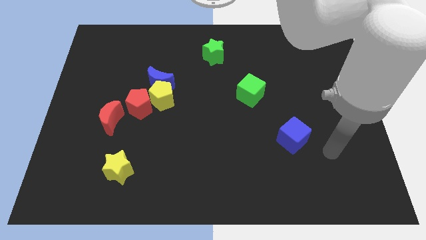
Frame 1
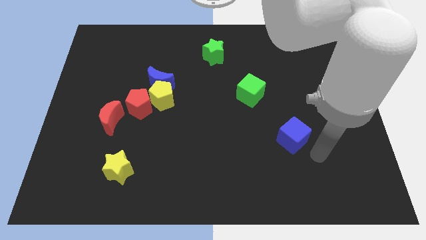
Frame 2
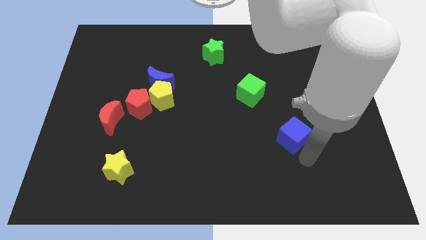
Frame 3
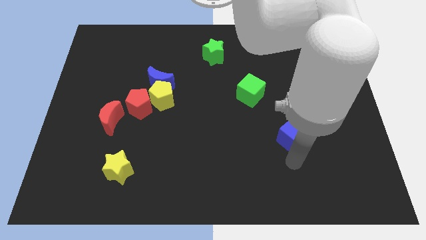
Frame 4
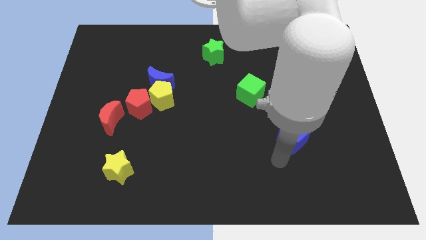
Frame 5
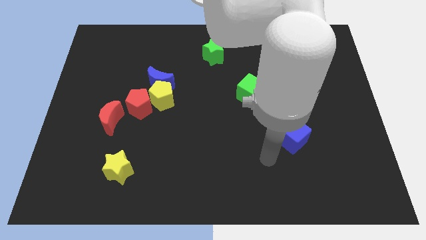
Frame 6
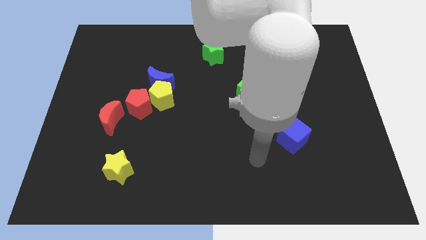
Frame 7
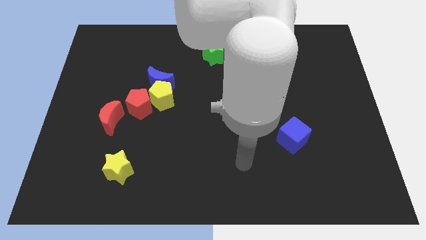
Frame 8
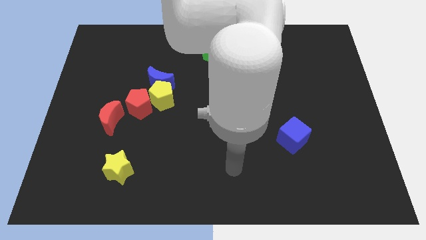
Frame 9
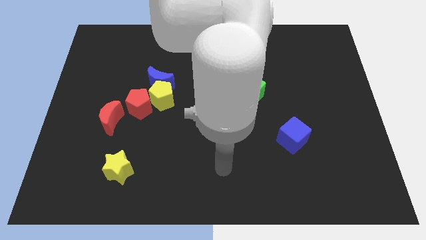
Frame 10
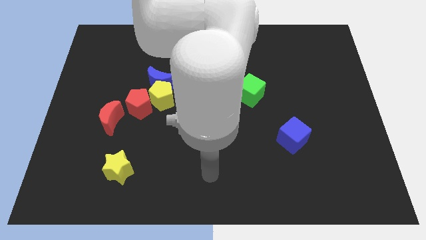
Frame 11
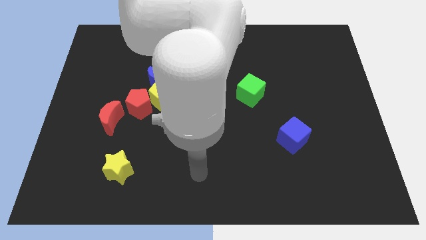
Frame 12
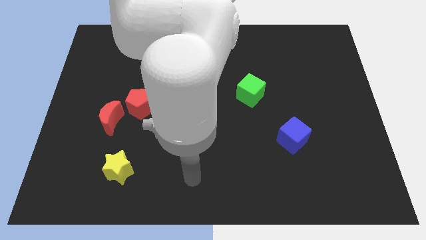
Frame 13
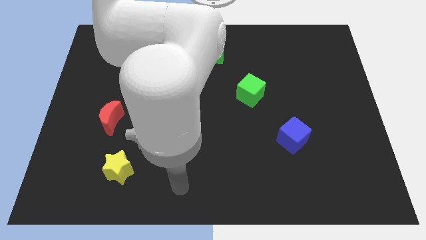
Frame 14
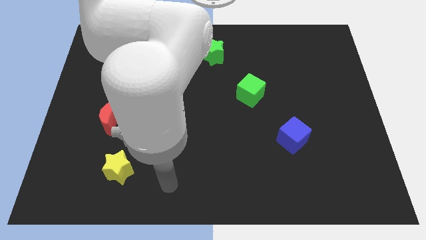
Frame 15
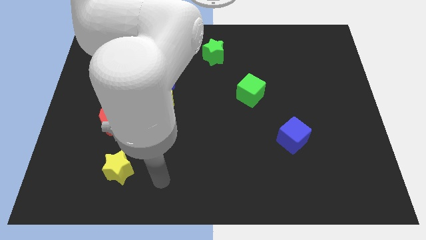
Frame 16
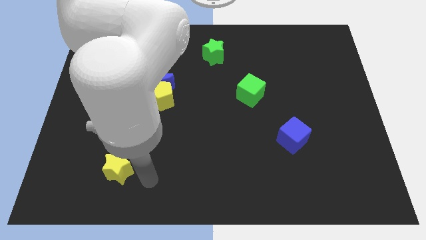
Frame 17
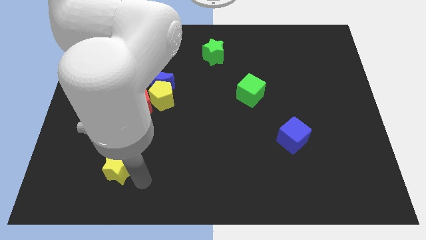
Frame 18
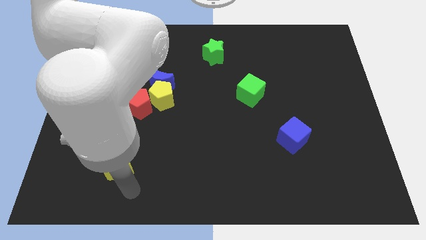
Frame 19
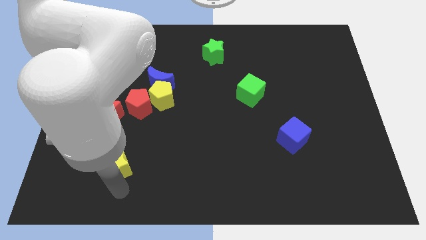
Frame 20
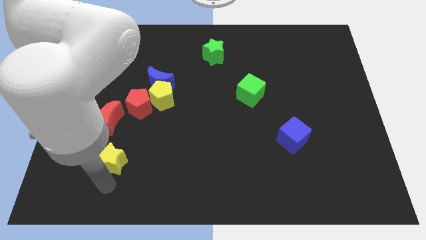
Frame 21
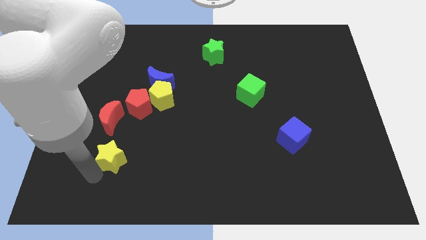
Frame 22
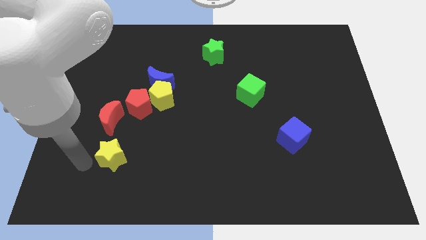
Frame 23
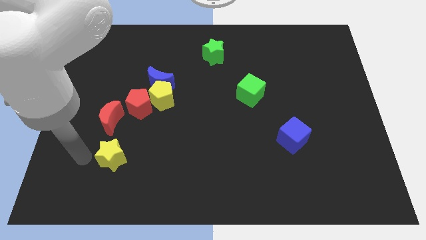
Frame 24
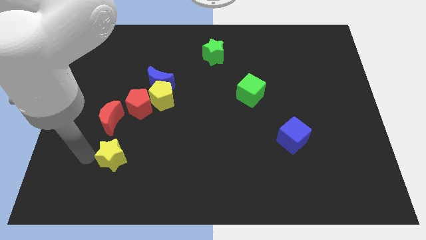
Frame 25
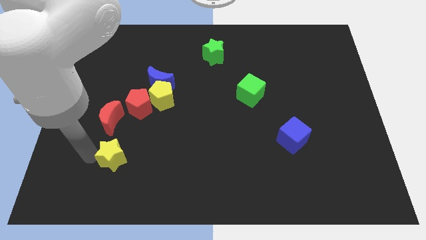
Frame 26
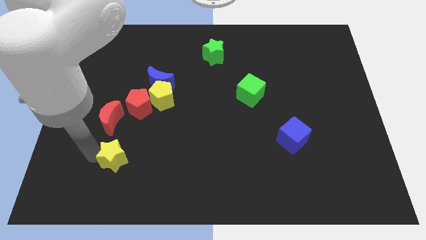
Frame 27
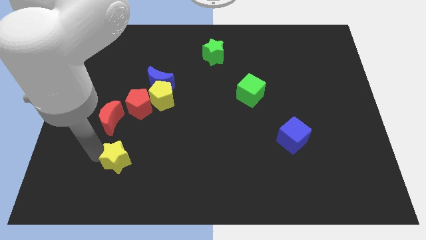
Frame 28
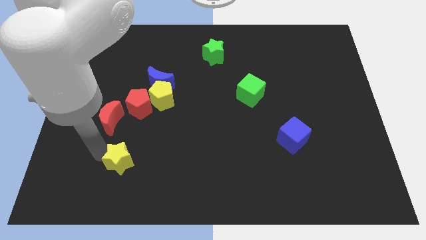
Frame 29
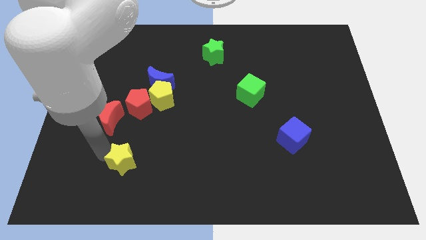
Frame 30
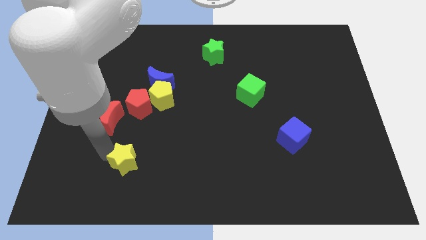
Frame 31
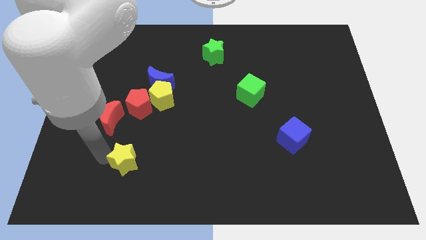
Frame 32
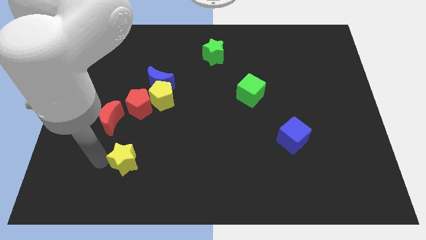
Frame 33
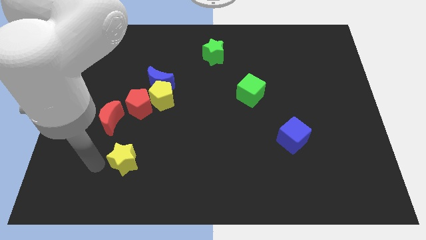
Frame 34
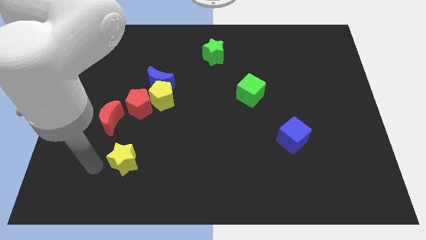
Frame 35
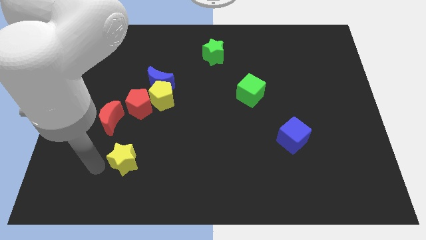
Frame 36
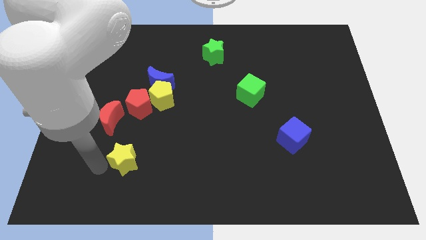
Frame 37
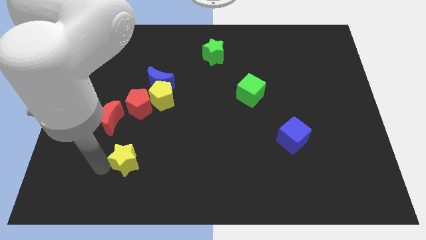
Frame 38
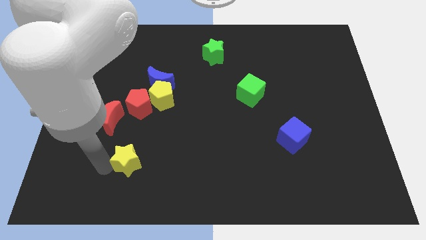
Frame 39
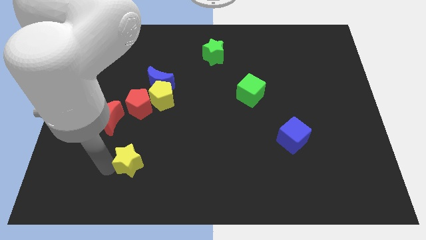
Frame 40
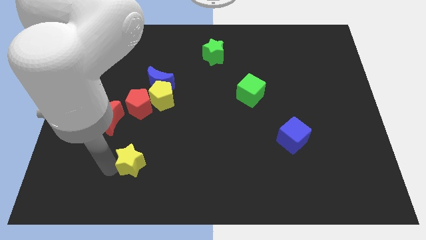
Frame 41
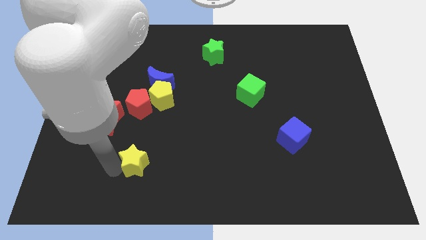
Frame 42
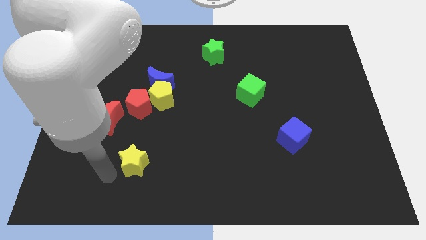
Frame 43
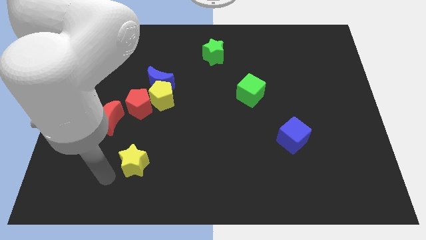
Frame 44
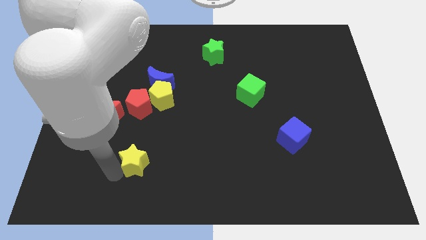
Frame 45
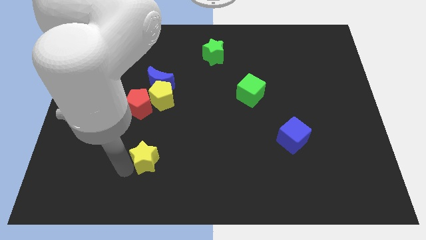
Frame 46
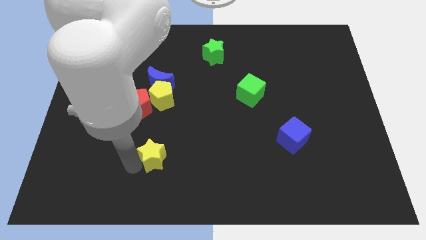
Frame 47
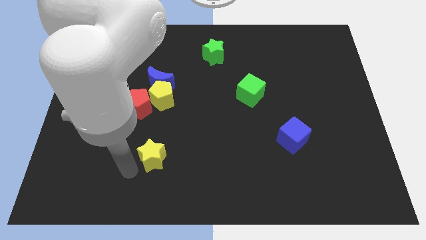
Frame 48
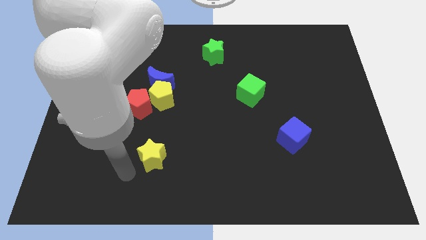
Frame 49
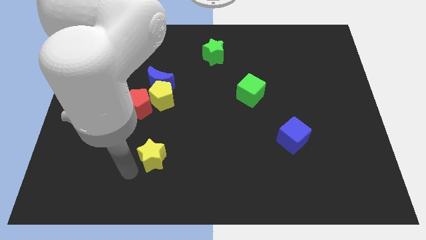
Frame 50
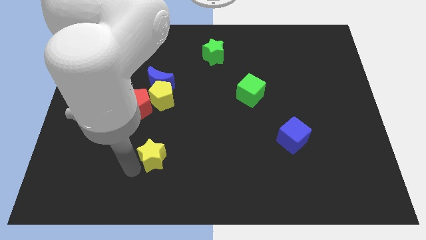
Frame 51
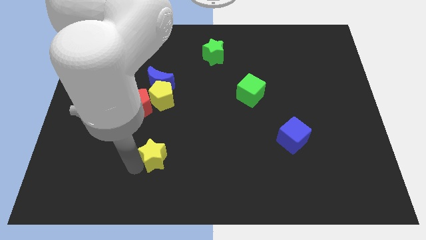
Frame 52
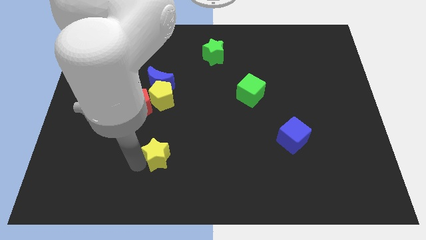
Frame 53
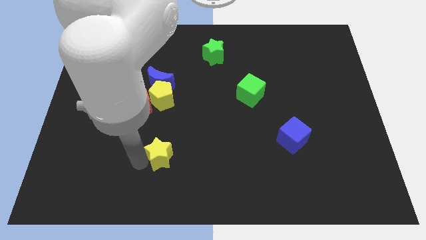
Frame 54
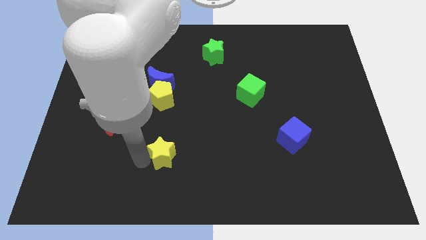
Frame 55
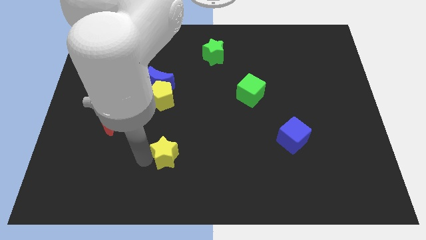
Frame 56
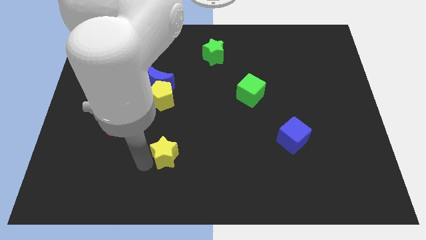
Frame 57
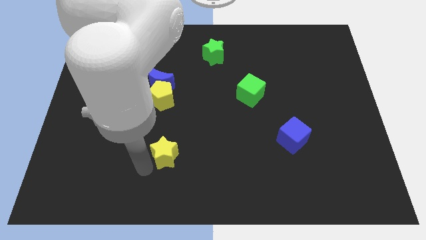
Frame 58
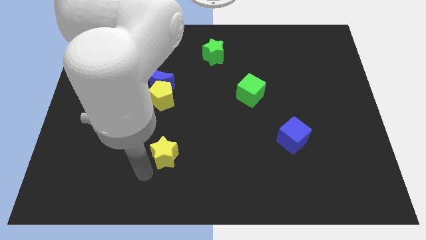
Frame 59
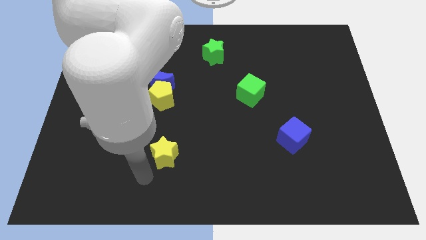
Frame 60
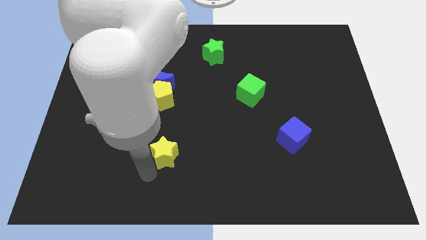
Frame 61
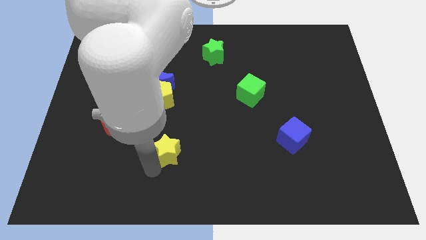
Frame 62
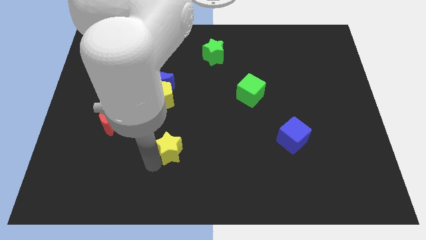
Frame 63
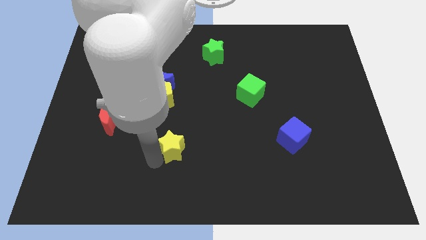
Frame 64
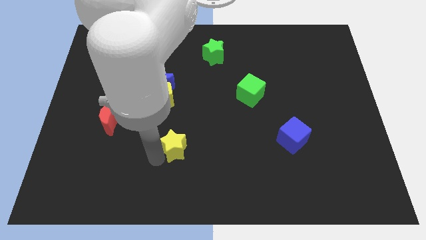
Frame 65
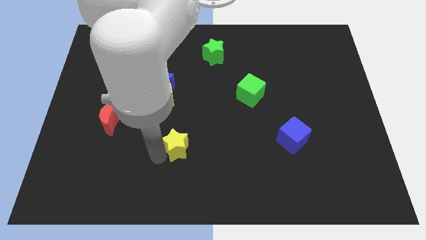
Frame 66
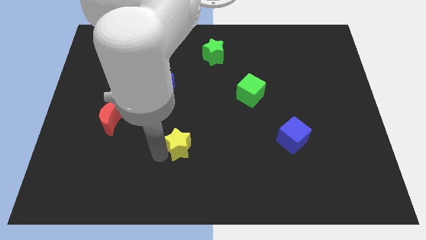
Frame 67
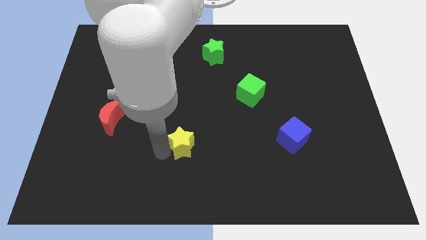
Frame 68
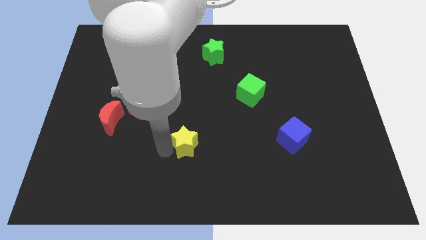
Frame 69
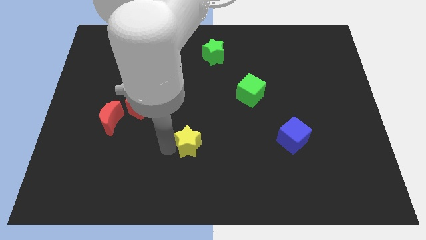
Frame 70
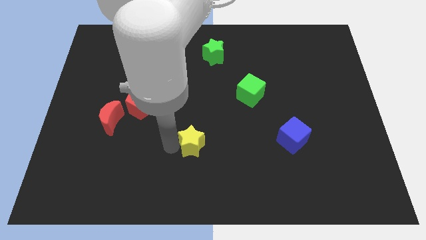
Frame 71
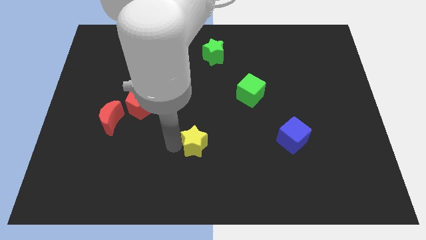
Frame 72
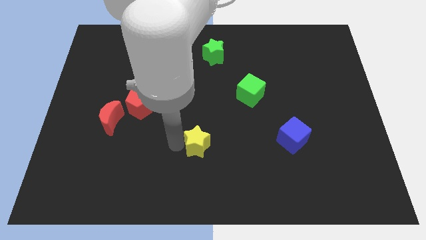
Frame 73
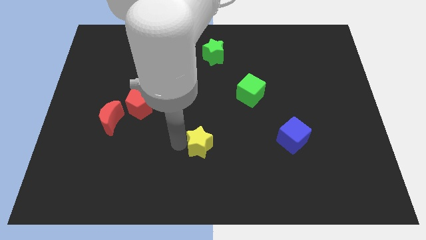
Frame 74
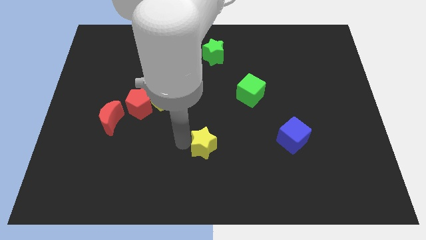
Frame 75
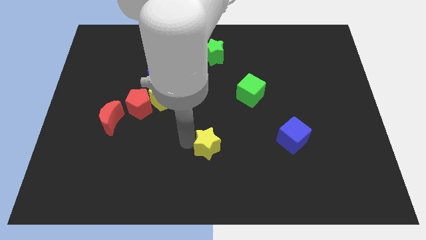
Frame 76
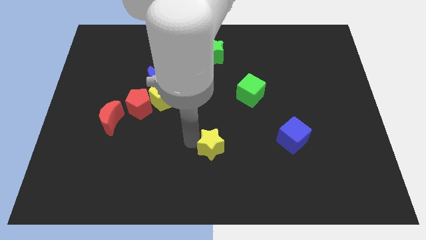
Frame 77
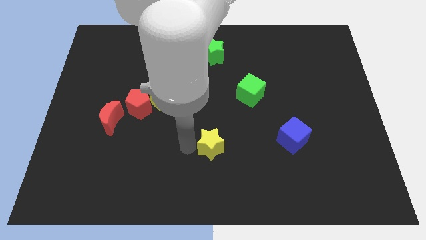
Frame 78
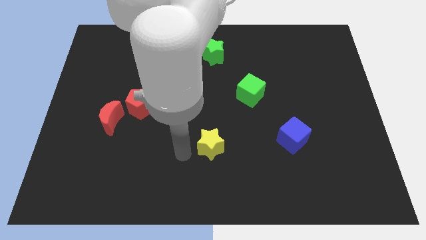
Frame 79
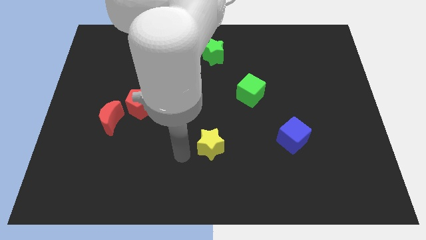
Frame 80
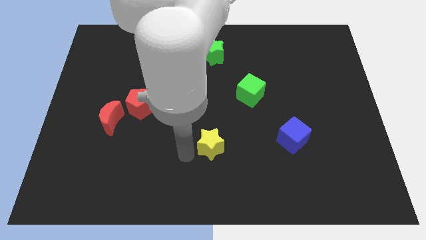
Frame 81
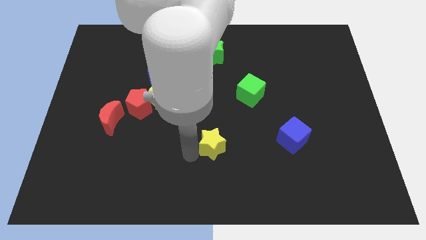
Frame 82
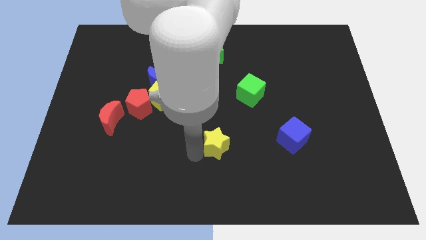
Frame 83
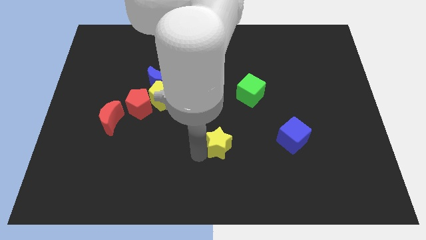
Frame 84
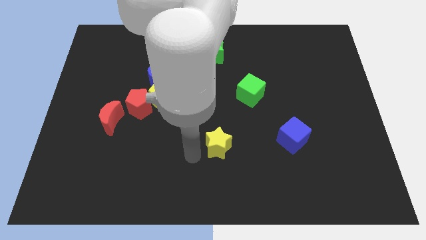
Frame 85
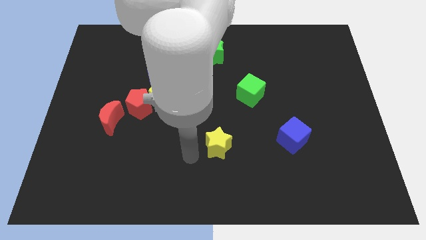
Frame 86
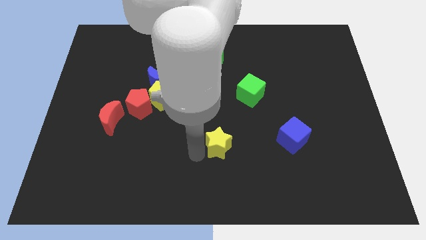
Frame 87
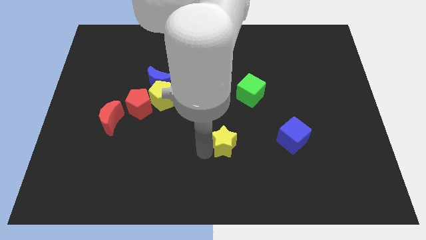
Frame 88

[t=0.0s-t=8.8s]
slide the yellow star left of the blue cube
